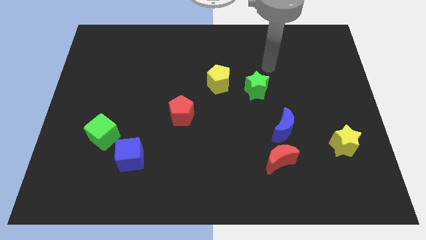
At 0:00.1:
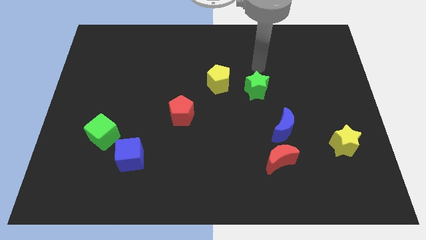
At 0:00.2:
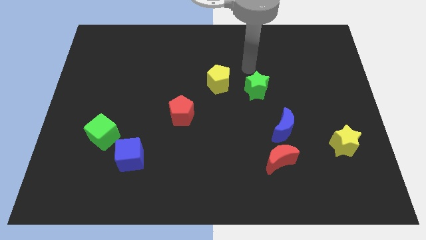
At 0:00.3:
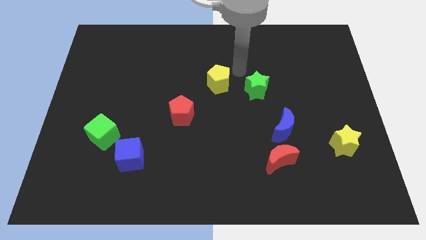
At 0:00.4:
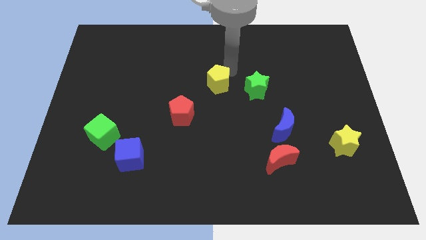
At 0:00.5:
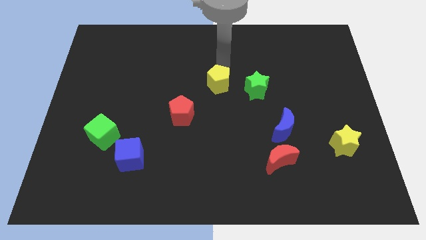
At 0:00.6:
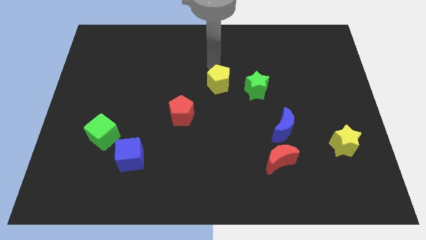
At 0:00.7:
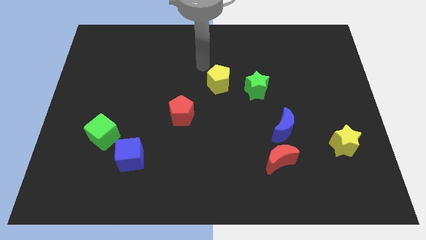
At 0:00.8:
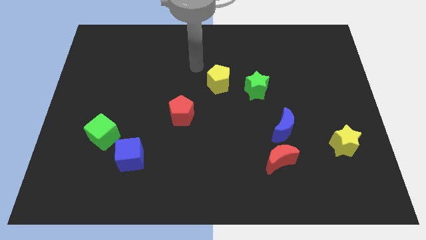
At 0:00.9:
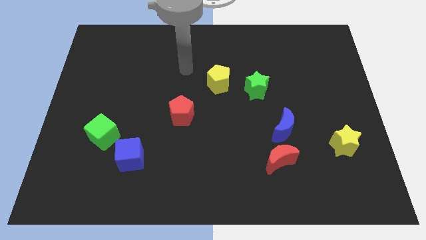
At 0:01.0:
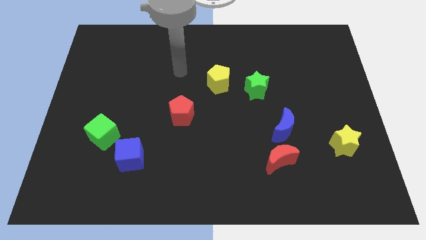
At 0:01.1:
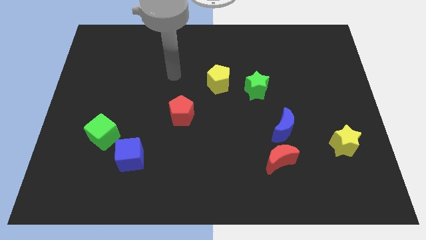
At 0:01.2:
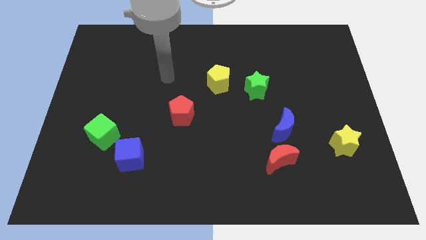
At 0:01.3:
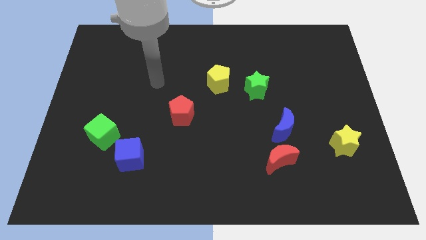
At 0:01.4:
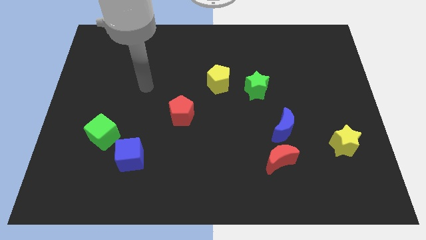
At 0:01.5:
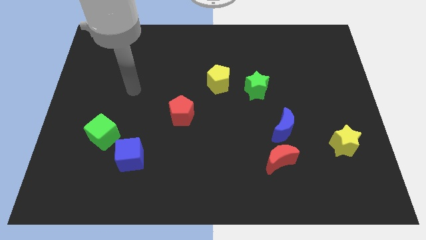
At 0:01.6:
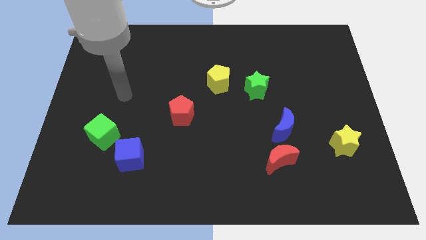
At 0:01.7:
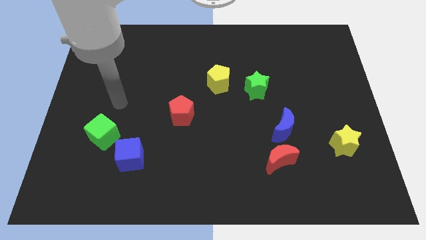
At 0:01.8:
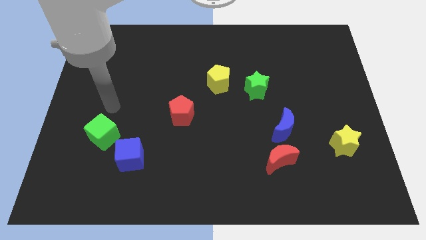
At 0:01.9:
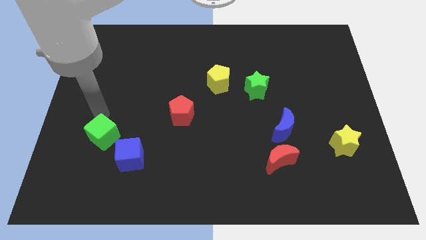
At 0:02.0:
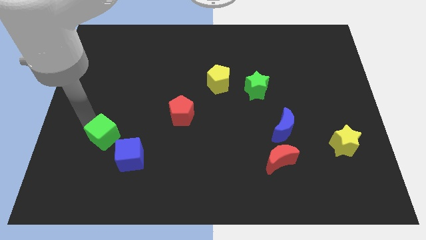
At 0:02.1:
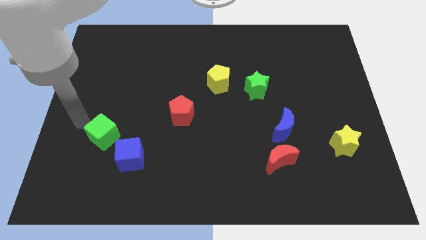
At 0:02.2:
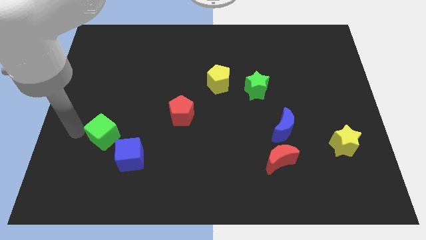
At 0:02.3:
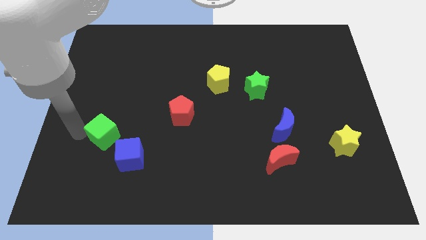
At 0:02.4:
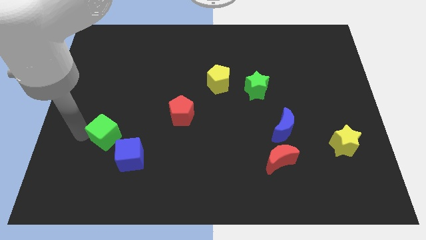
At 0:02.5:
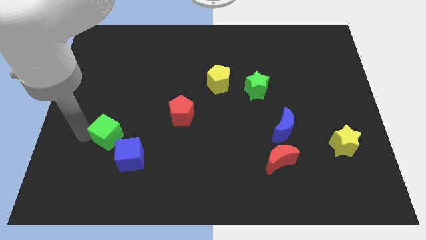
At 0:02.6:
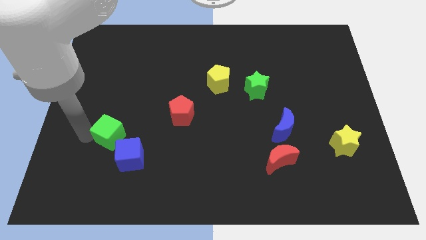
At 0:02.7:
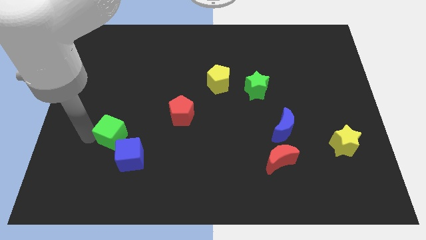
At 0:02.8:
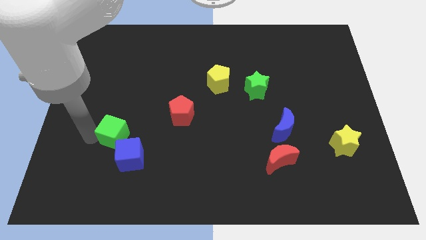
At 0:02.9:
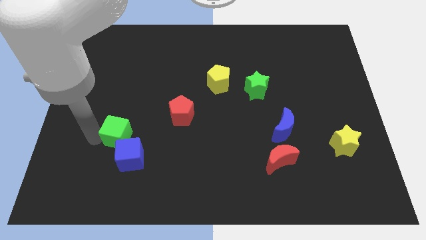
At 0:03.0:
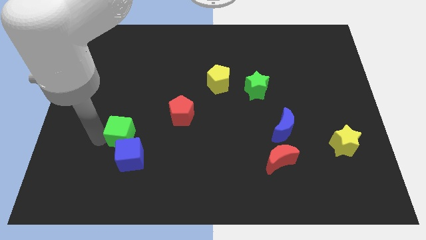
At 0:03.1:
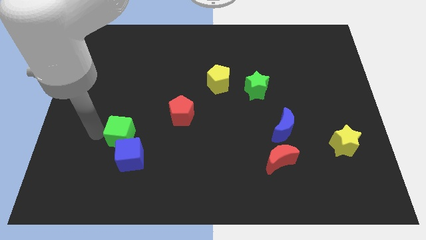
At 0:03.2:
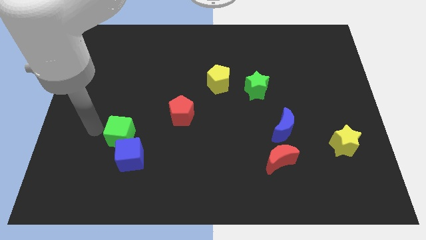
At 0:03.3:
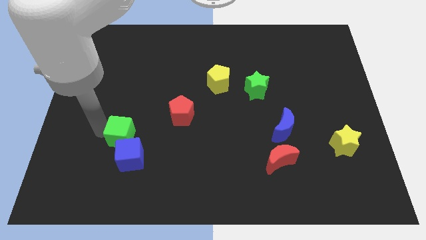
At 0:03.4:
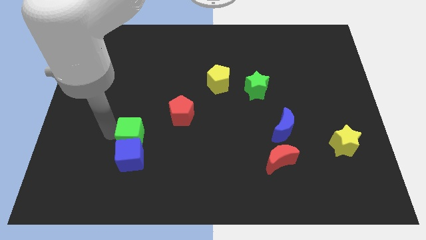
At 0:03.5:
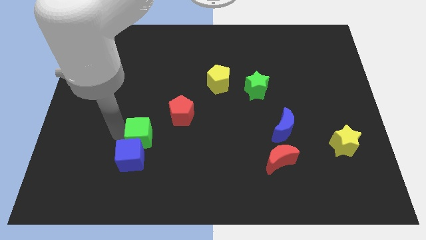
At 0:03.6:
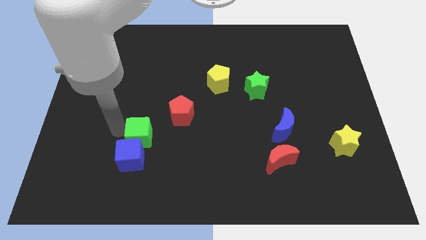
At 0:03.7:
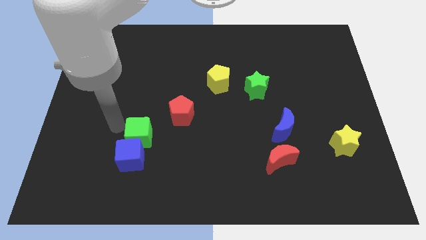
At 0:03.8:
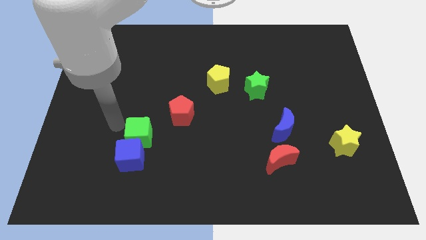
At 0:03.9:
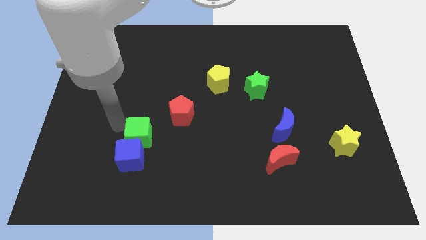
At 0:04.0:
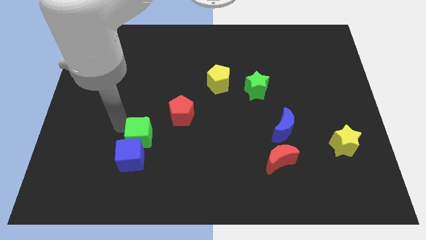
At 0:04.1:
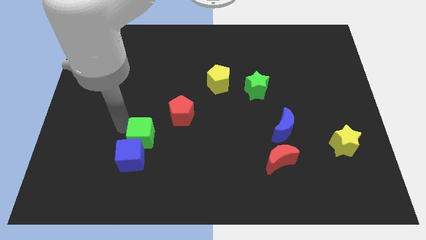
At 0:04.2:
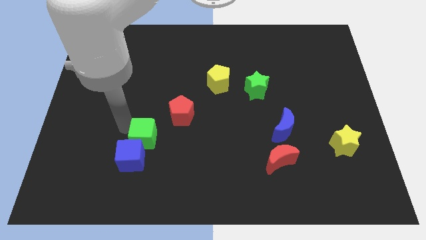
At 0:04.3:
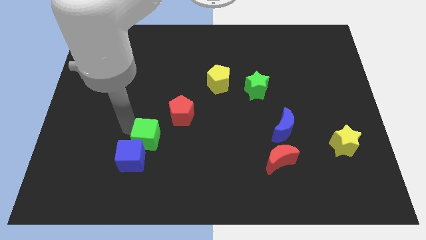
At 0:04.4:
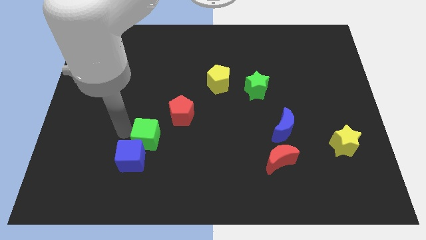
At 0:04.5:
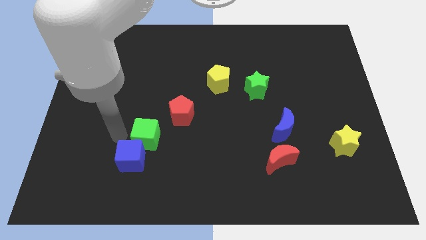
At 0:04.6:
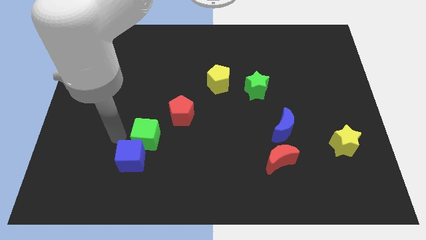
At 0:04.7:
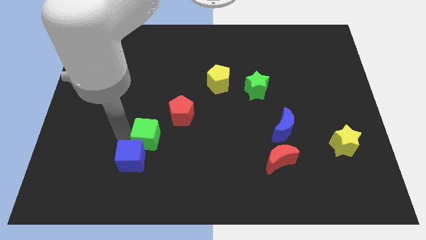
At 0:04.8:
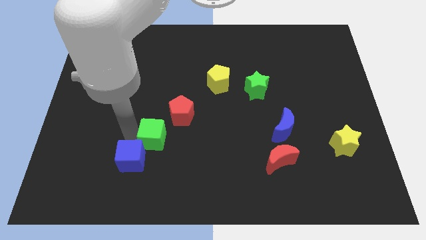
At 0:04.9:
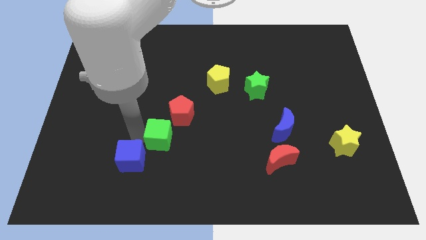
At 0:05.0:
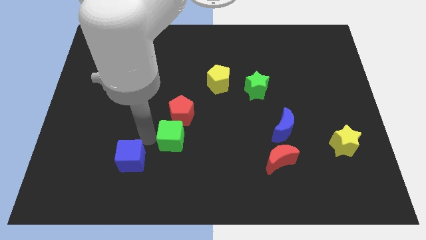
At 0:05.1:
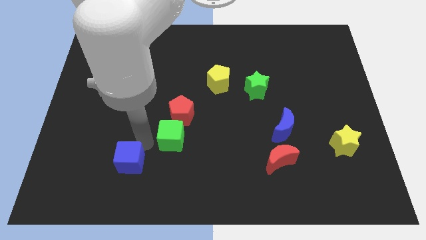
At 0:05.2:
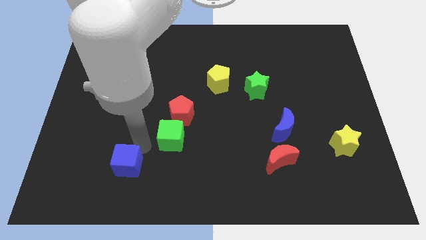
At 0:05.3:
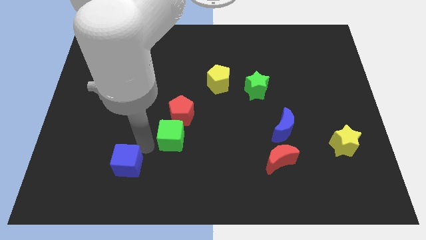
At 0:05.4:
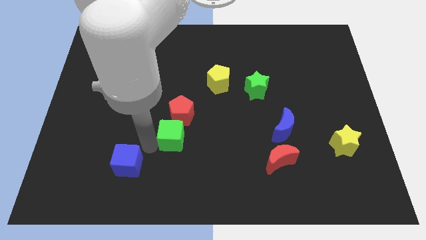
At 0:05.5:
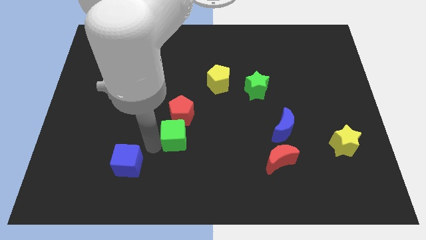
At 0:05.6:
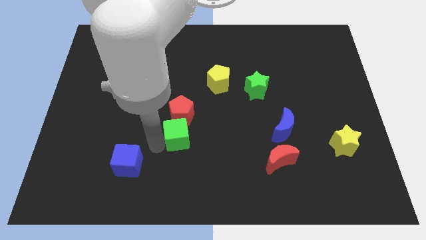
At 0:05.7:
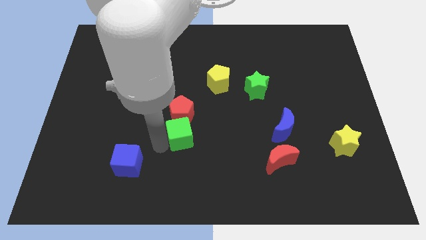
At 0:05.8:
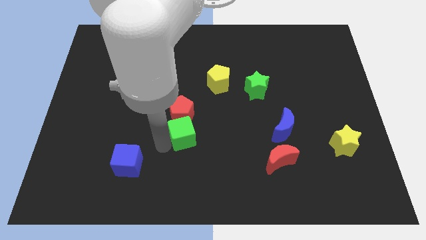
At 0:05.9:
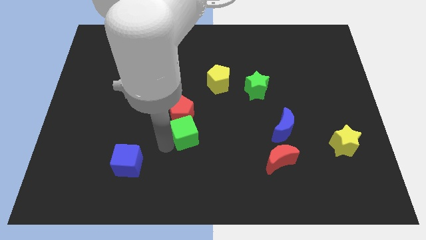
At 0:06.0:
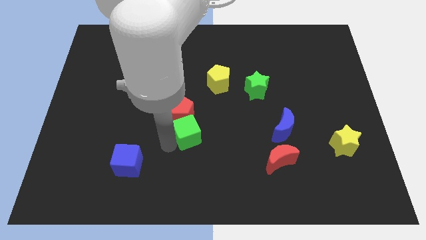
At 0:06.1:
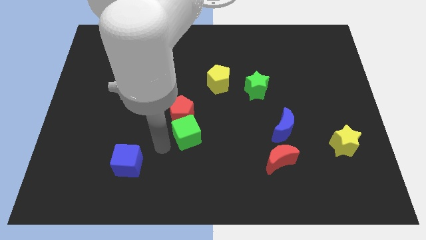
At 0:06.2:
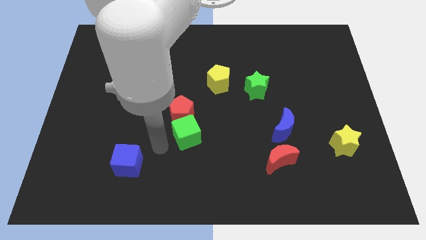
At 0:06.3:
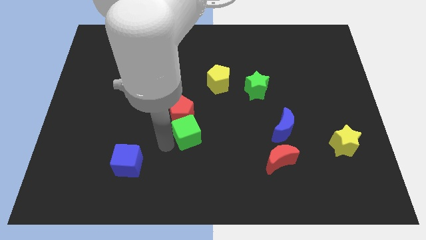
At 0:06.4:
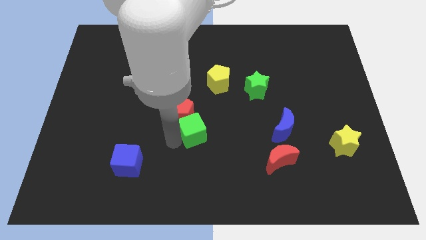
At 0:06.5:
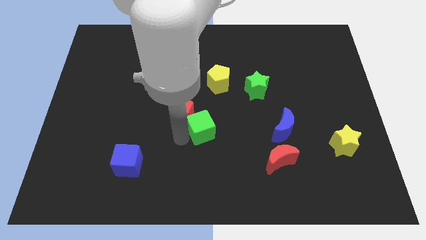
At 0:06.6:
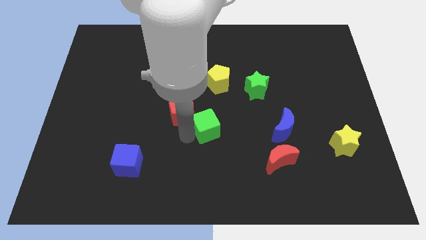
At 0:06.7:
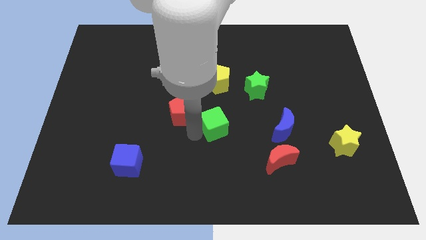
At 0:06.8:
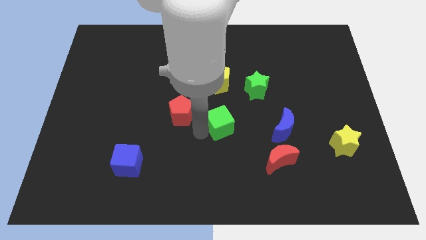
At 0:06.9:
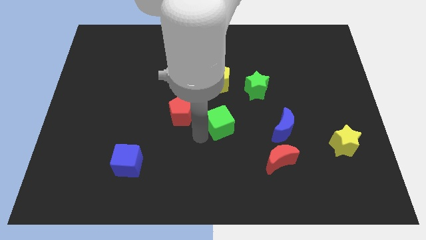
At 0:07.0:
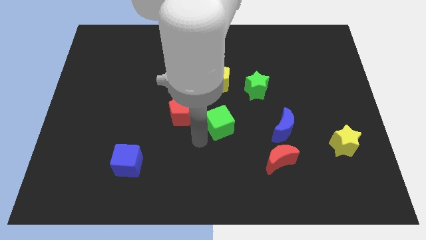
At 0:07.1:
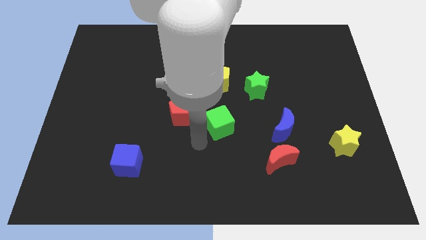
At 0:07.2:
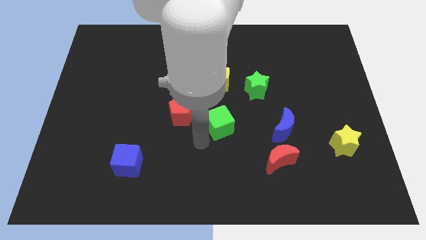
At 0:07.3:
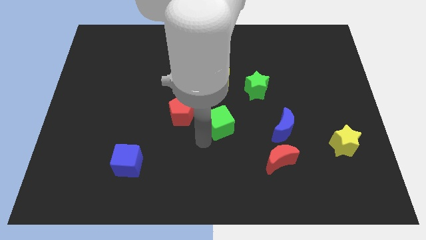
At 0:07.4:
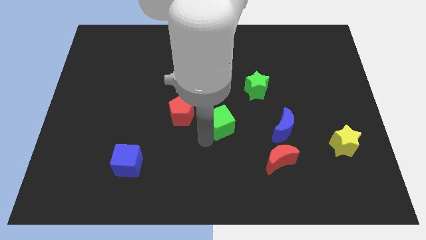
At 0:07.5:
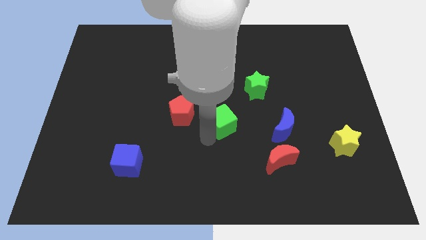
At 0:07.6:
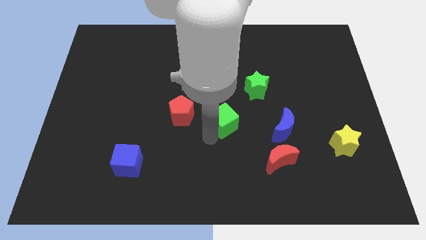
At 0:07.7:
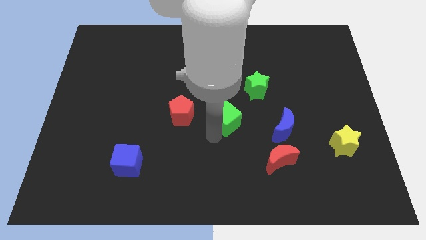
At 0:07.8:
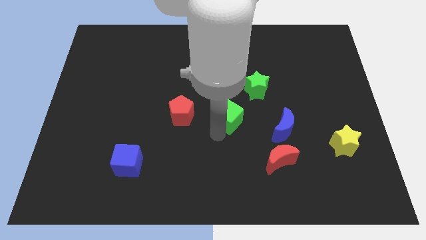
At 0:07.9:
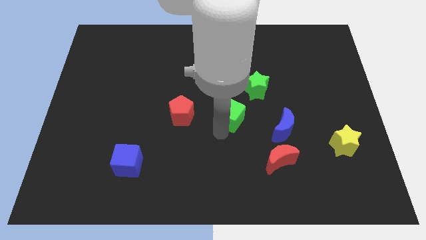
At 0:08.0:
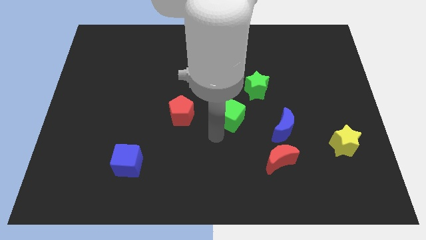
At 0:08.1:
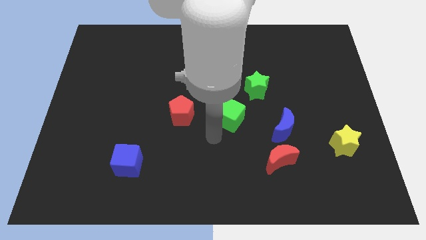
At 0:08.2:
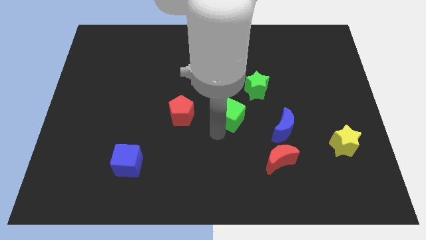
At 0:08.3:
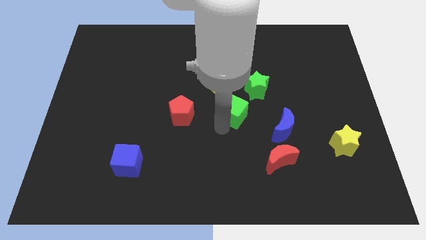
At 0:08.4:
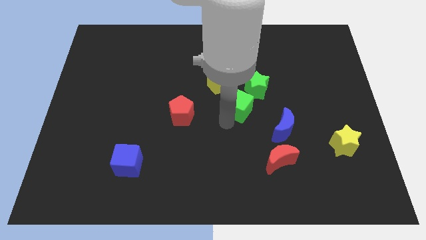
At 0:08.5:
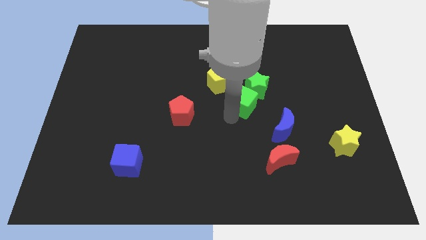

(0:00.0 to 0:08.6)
slide the green cube next to the green star
